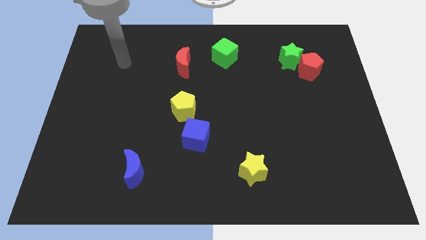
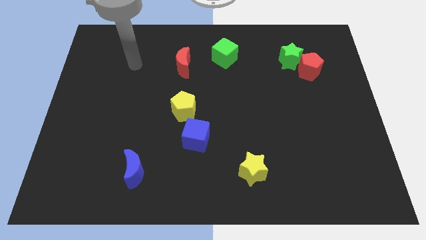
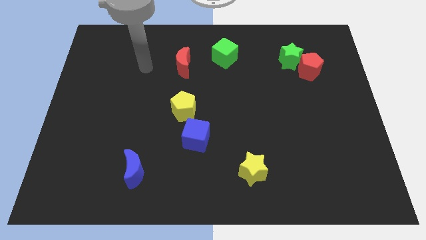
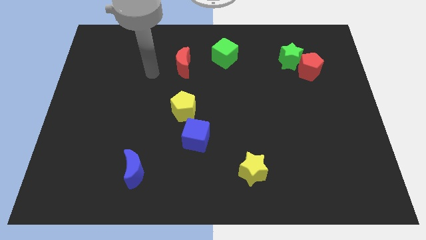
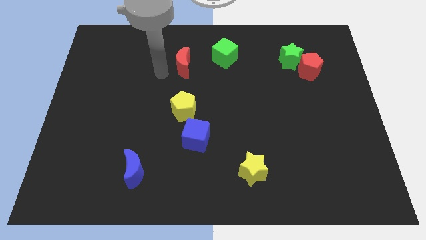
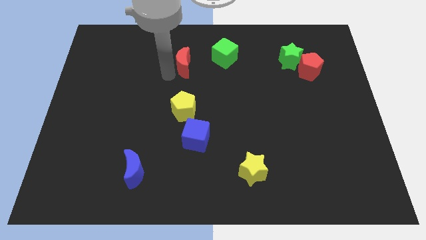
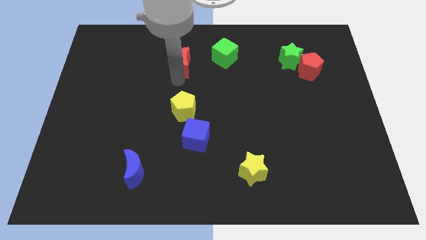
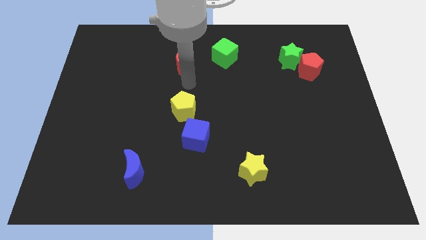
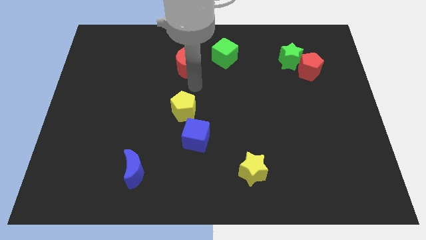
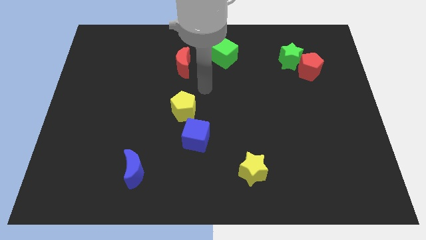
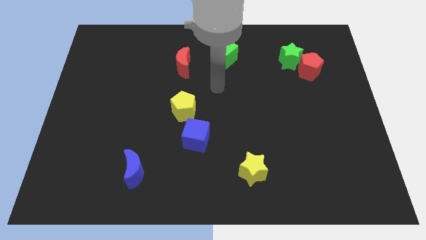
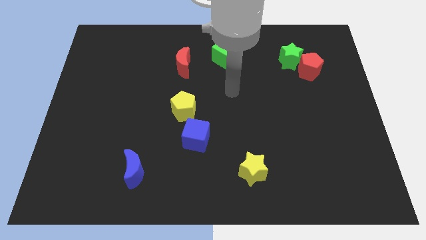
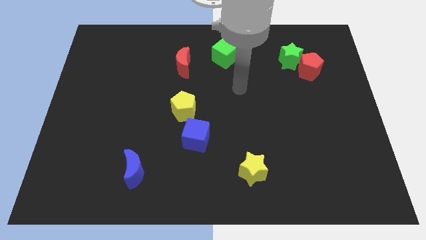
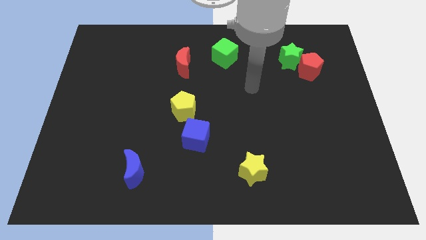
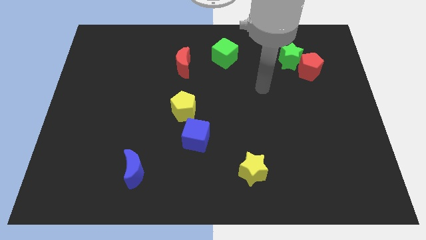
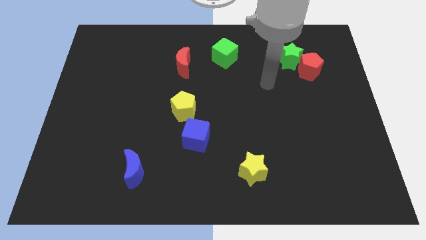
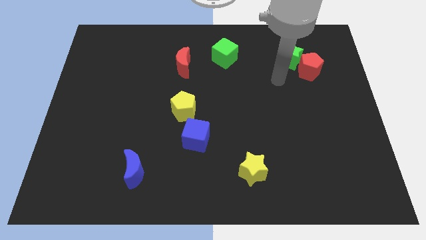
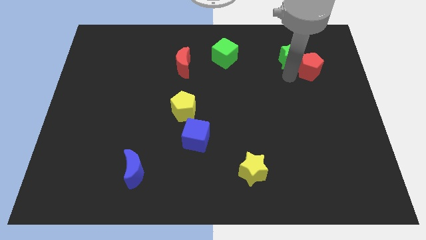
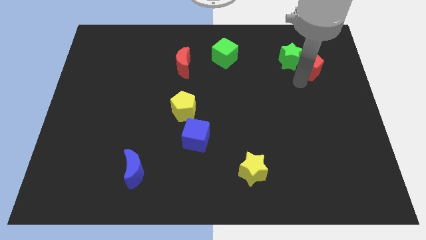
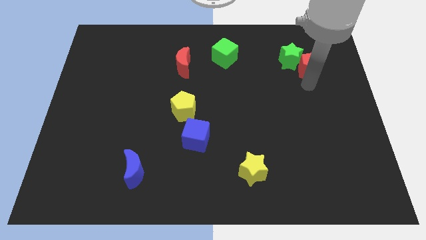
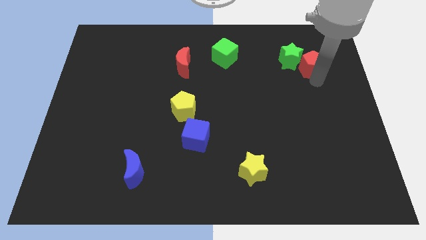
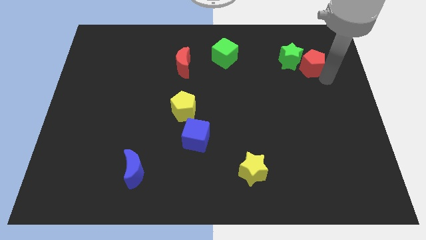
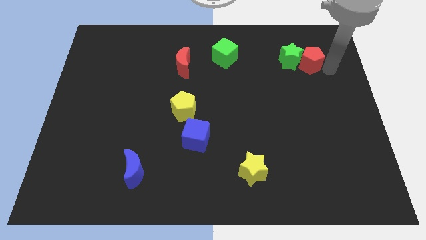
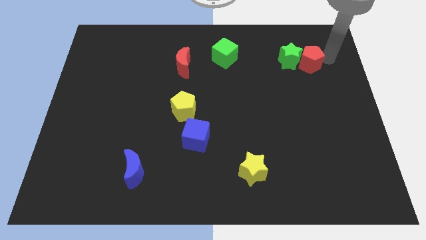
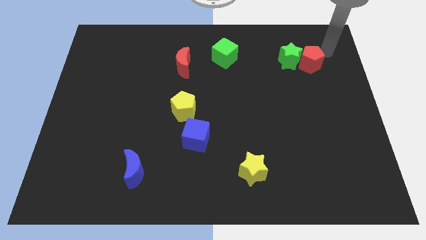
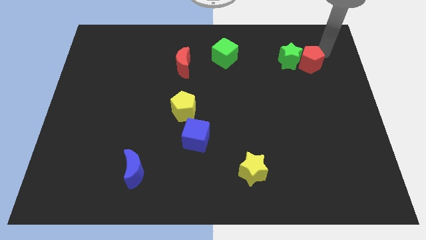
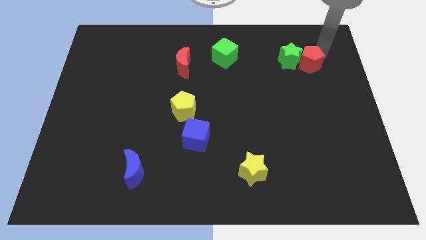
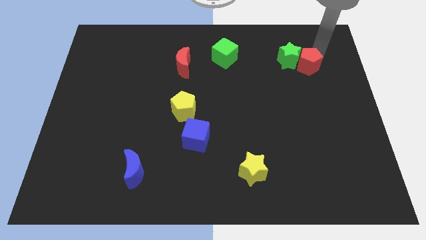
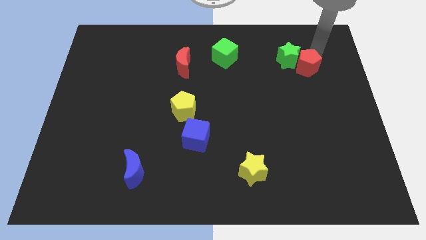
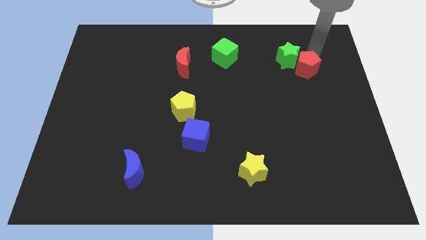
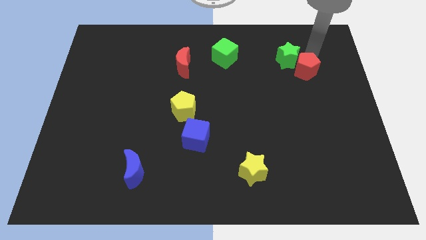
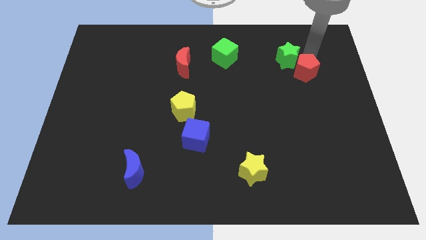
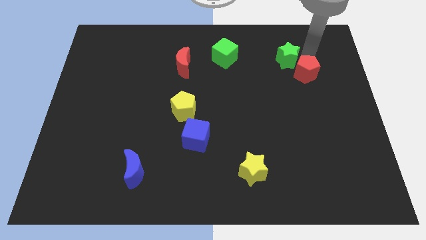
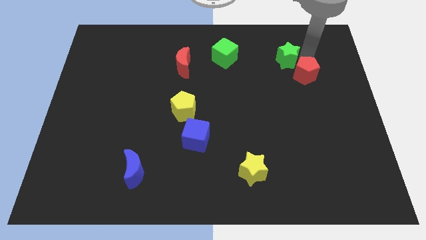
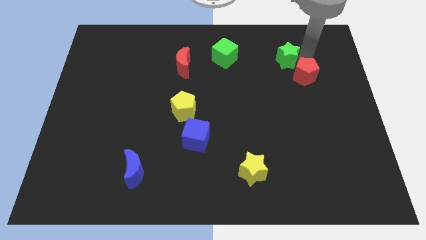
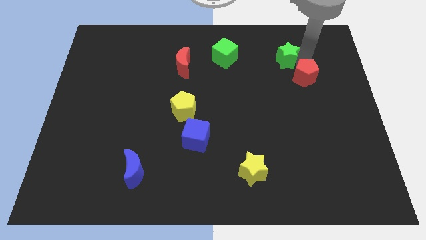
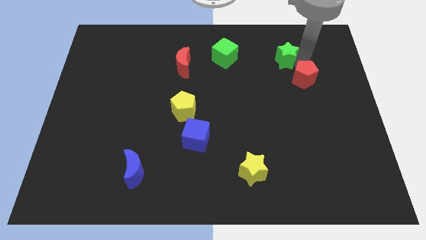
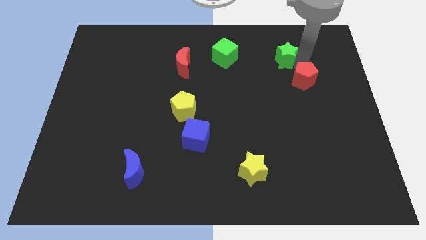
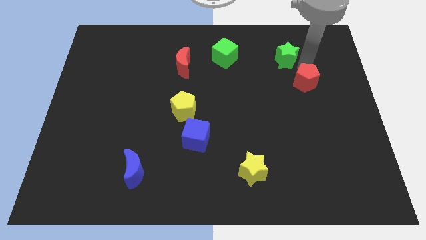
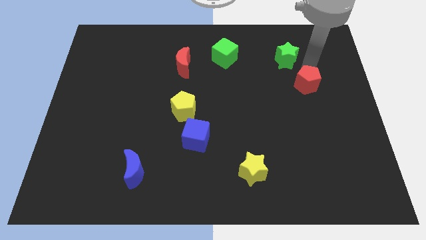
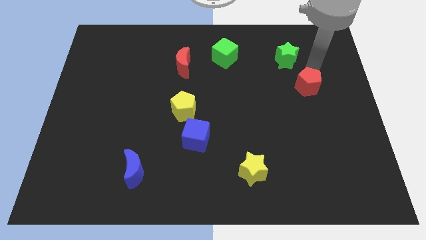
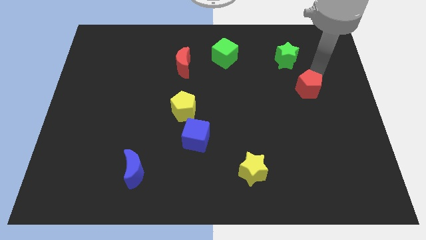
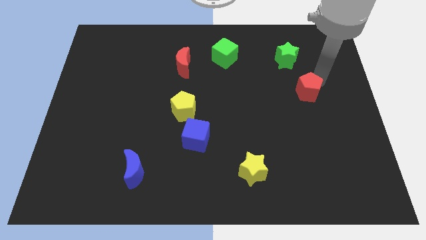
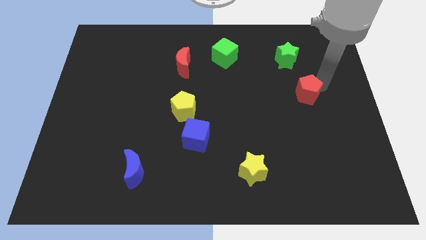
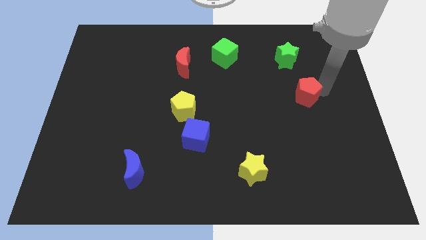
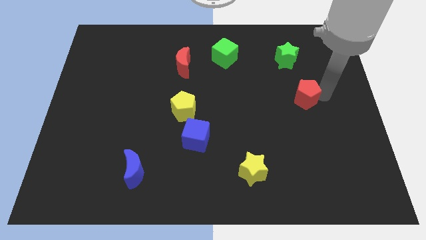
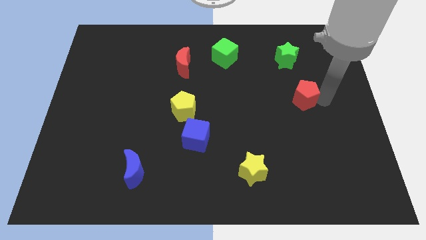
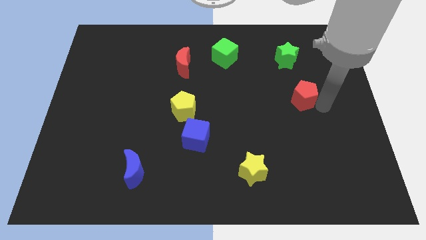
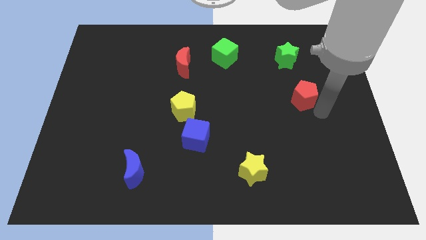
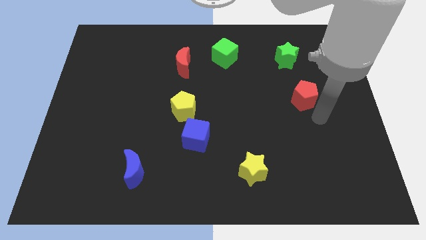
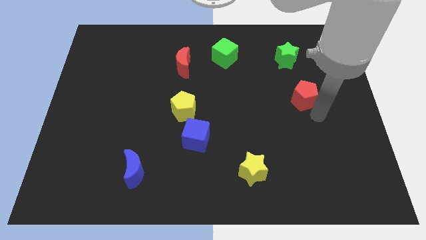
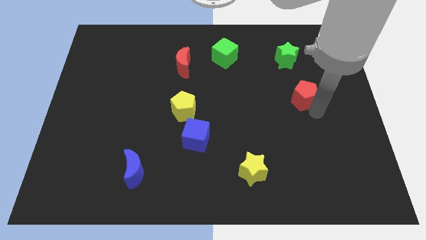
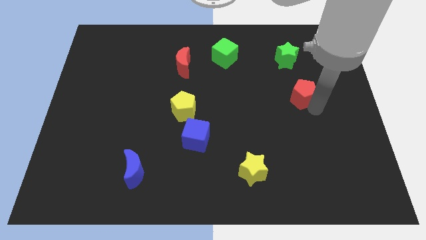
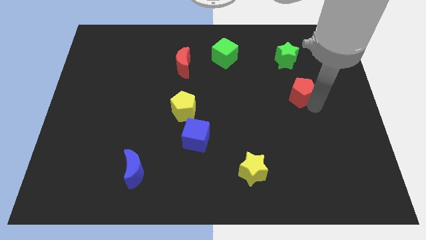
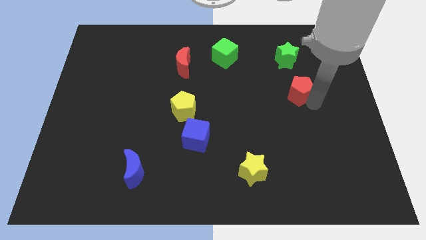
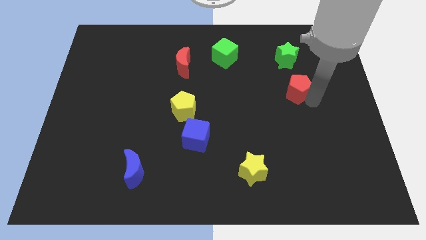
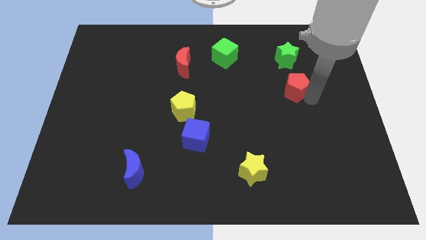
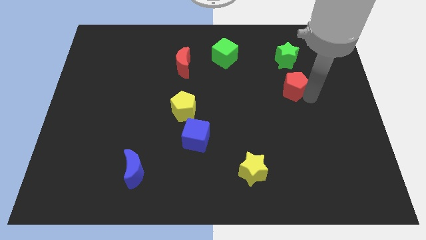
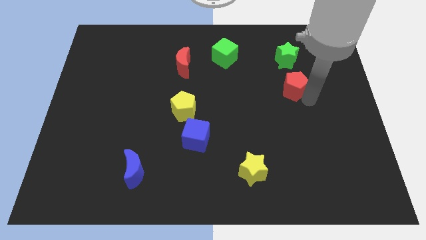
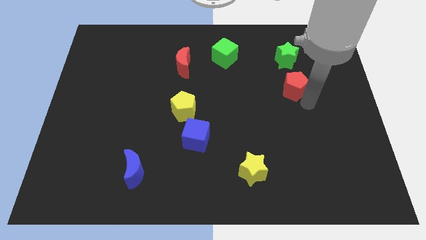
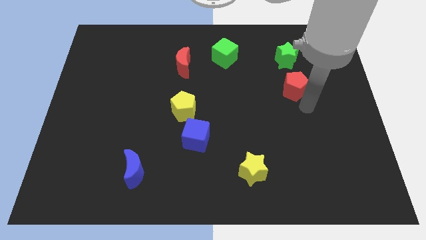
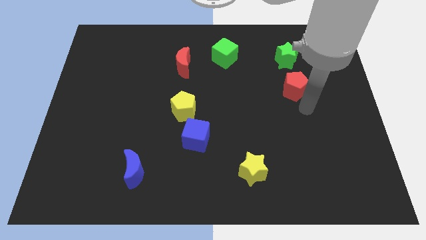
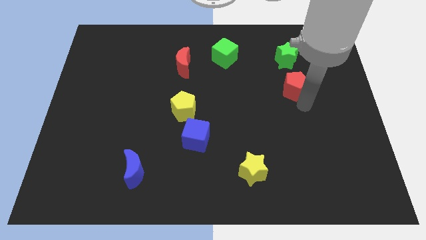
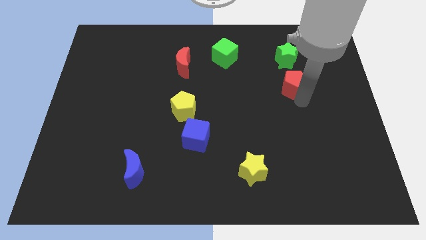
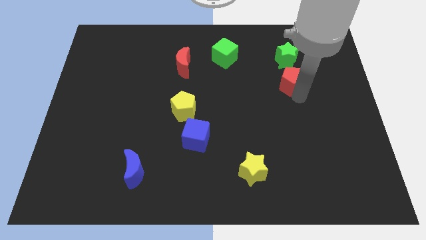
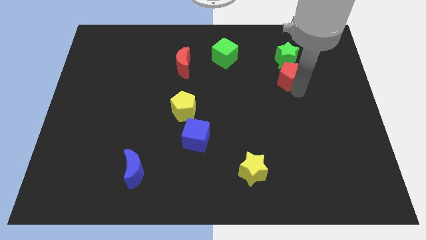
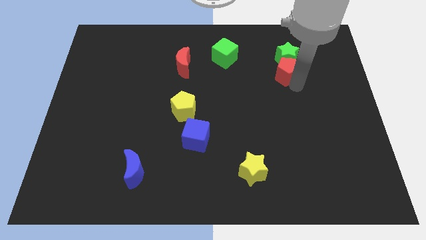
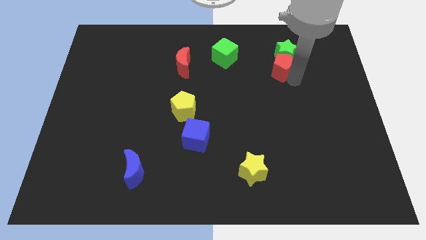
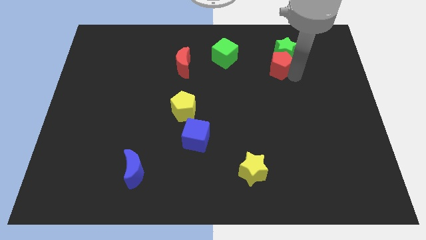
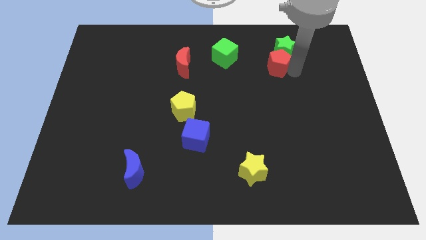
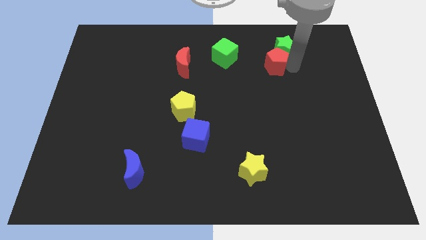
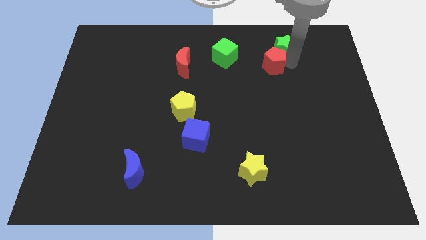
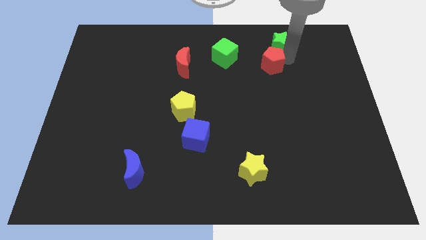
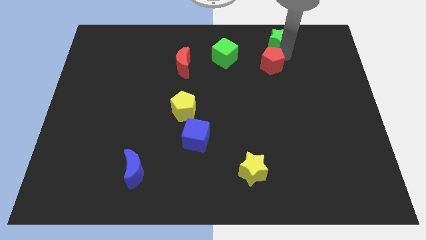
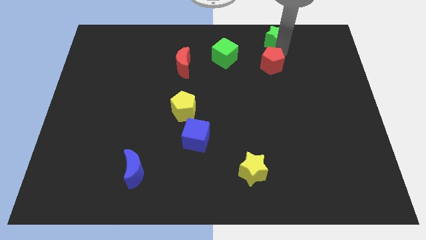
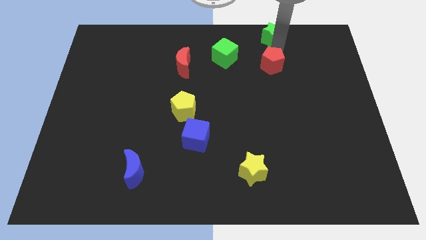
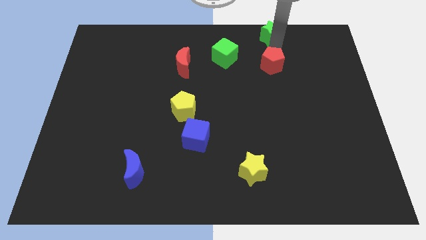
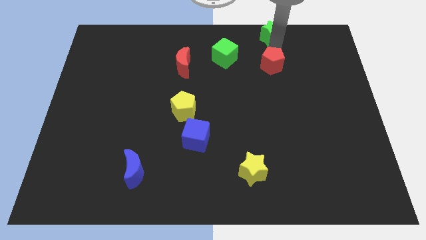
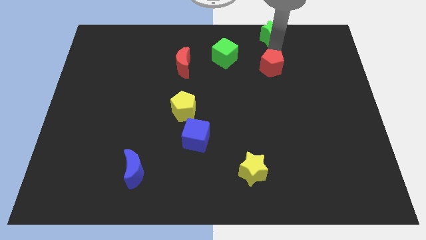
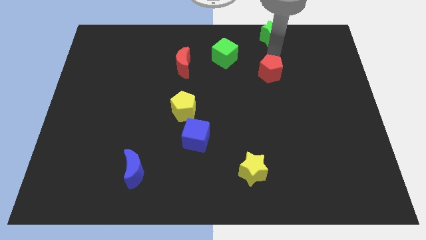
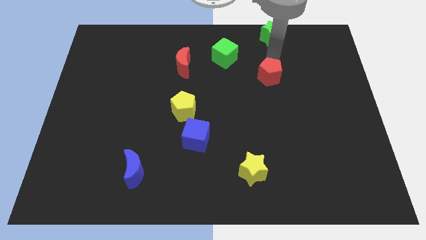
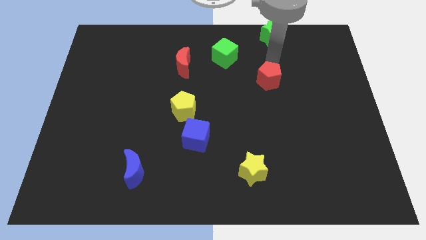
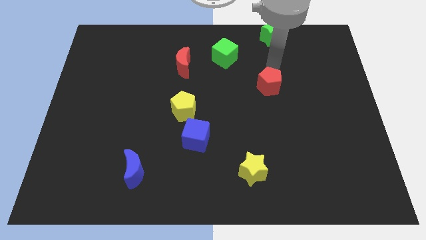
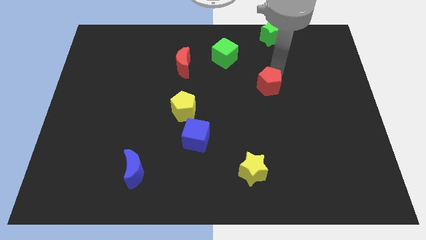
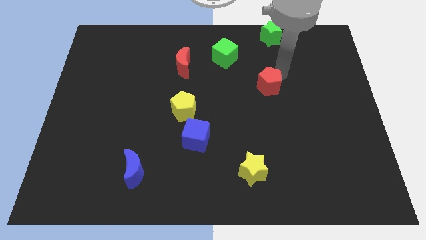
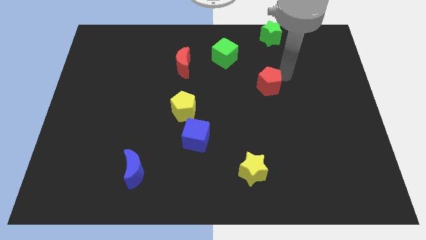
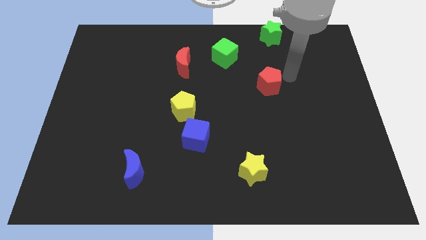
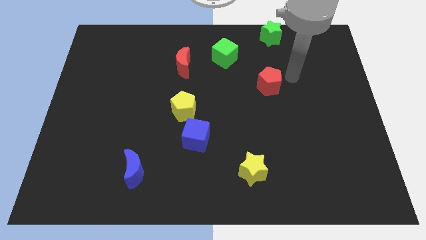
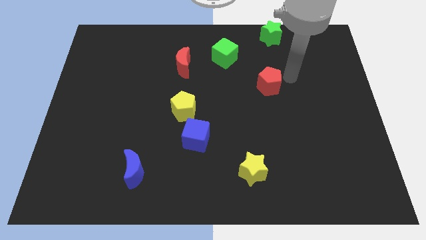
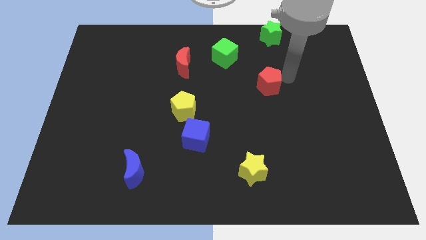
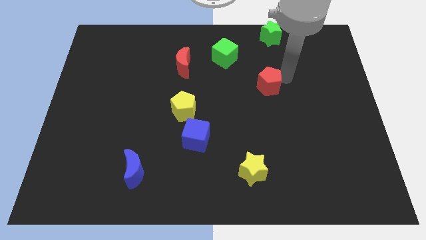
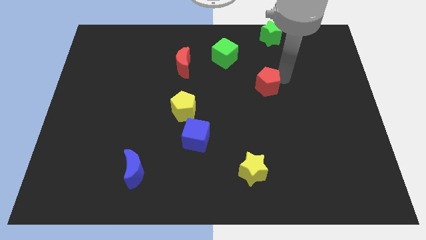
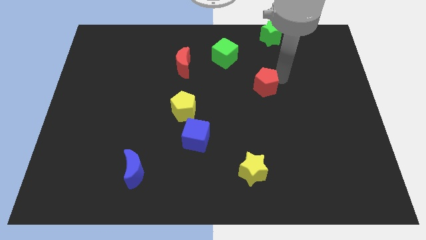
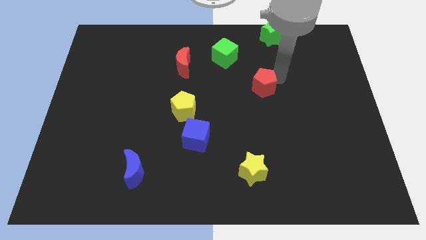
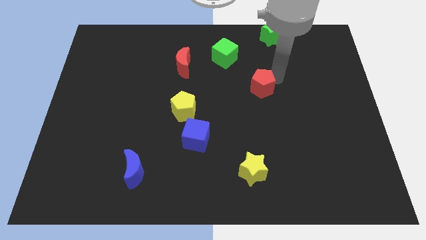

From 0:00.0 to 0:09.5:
put the red pentagon to the middle
